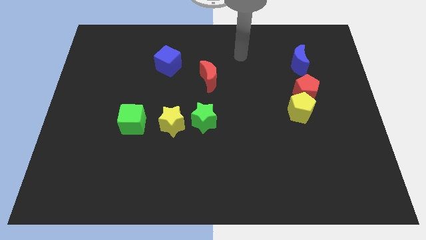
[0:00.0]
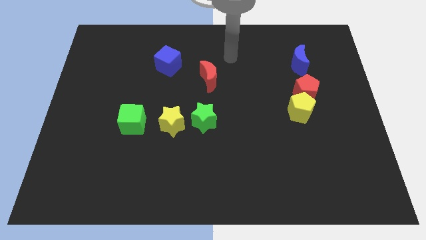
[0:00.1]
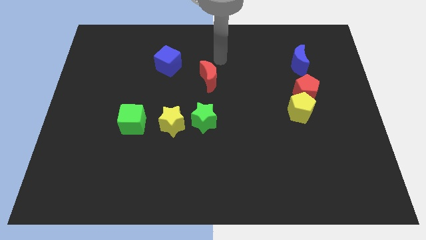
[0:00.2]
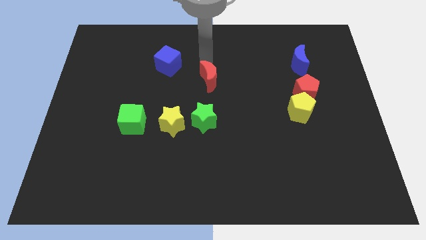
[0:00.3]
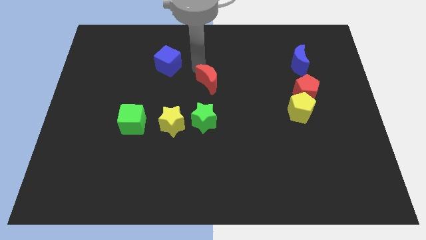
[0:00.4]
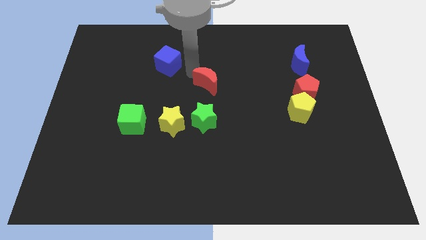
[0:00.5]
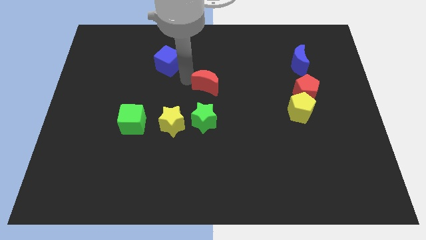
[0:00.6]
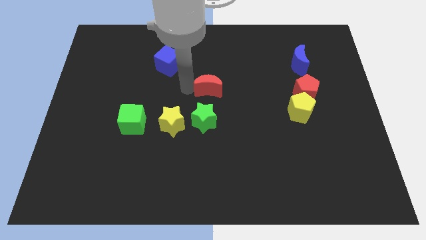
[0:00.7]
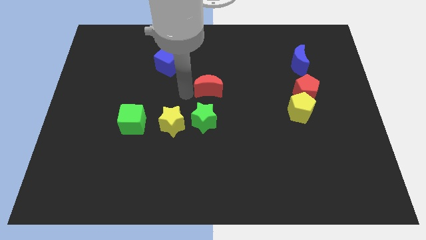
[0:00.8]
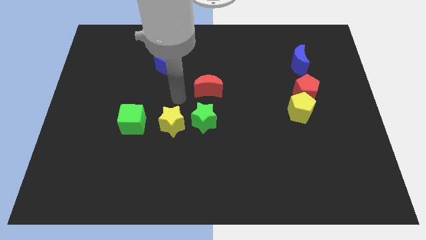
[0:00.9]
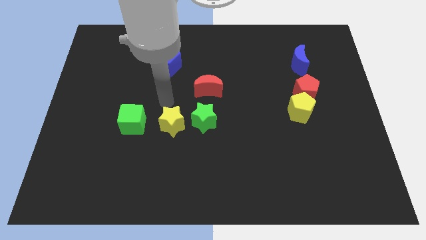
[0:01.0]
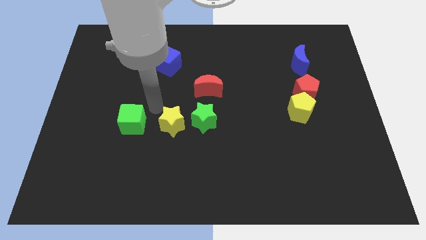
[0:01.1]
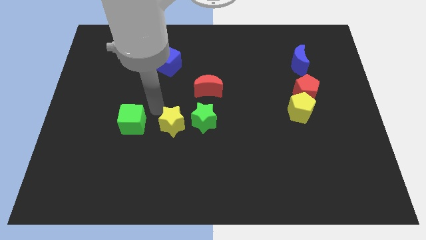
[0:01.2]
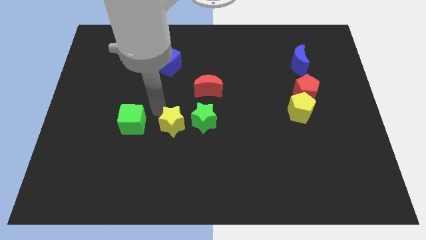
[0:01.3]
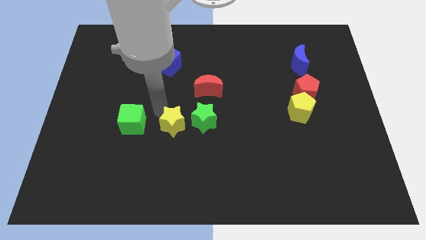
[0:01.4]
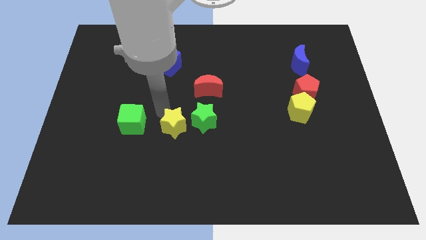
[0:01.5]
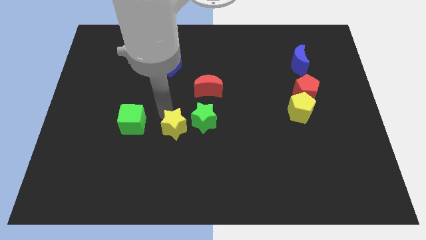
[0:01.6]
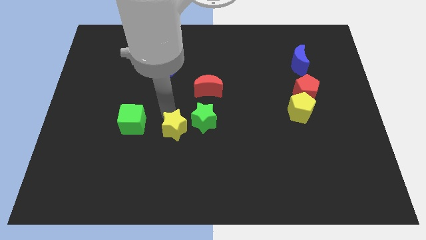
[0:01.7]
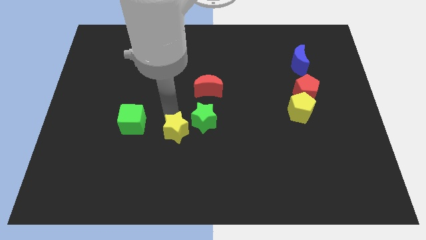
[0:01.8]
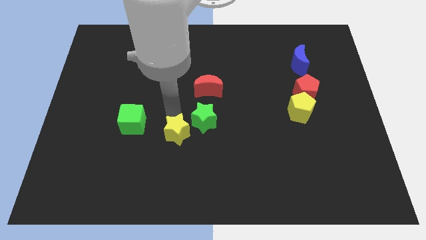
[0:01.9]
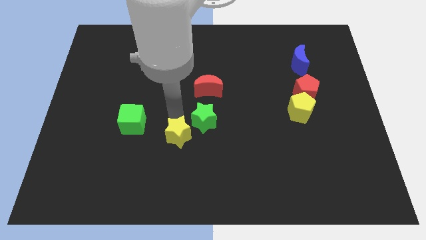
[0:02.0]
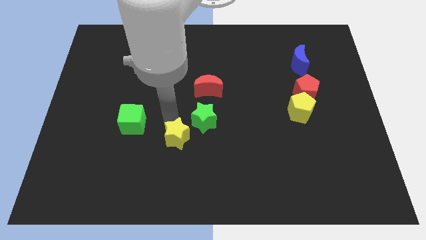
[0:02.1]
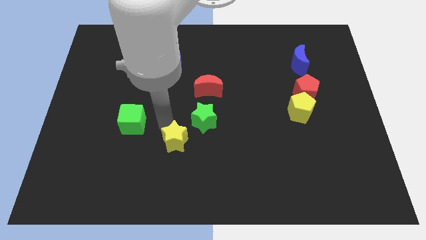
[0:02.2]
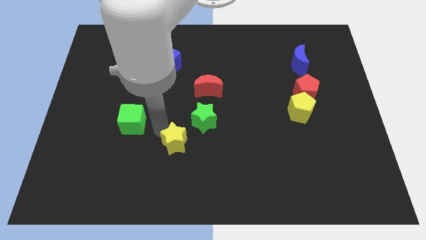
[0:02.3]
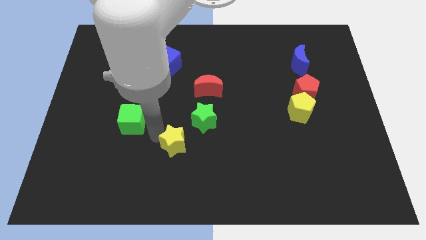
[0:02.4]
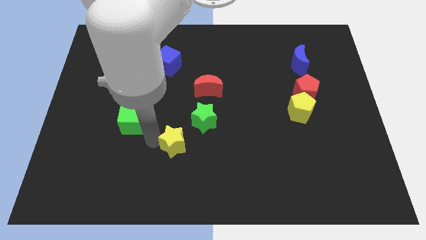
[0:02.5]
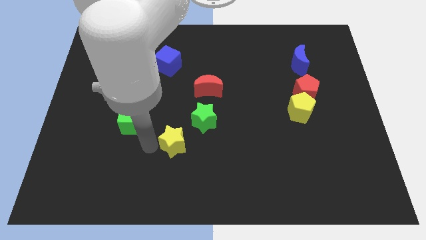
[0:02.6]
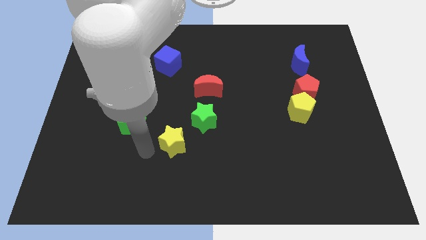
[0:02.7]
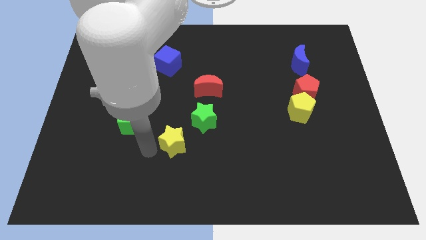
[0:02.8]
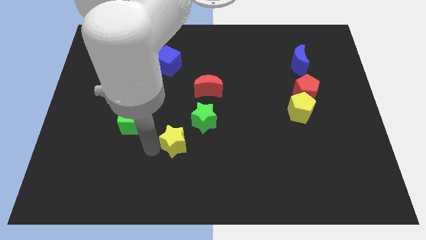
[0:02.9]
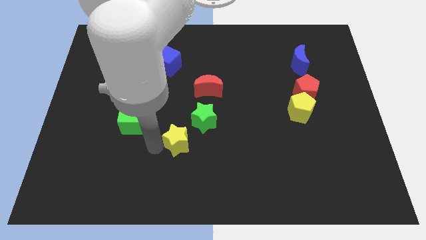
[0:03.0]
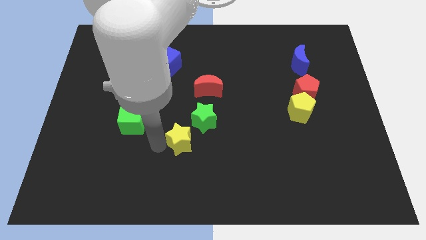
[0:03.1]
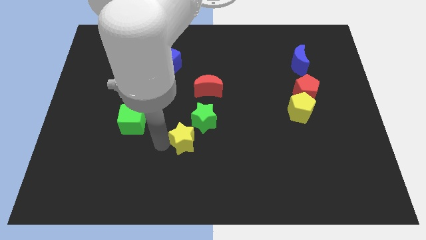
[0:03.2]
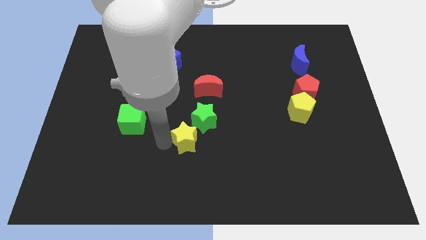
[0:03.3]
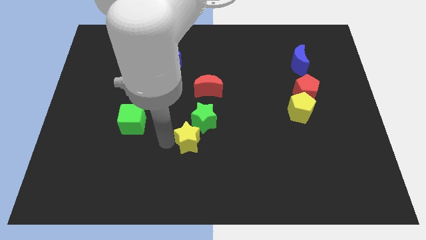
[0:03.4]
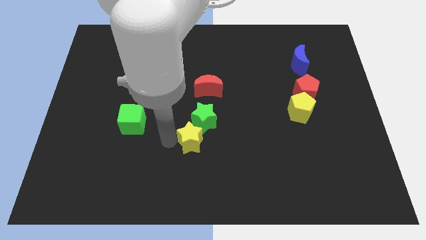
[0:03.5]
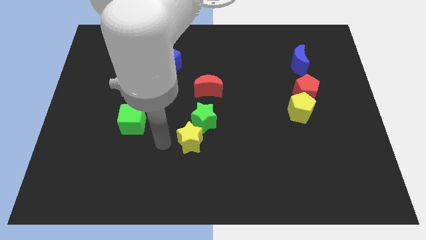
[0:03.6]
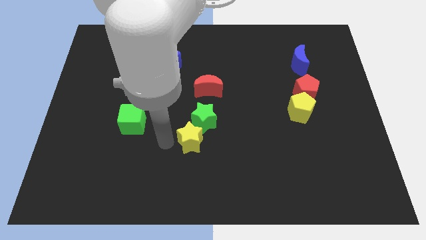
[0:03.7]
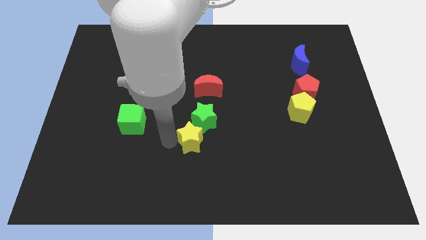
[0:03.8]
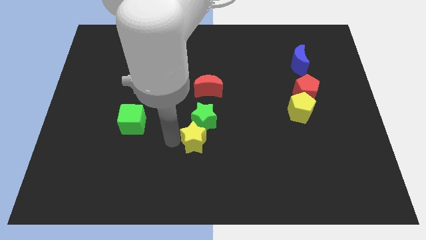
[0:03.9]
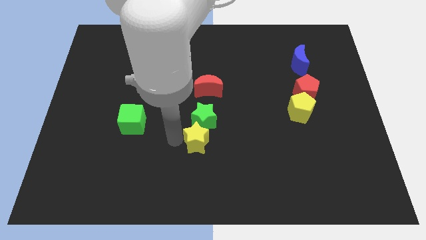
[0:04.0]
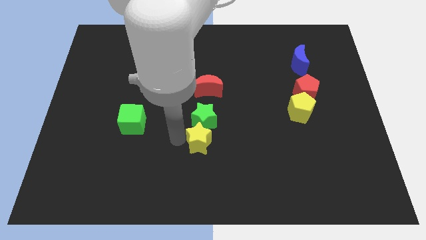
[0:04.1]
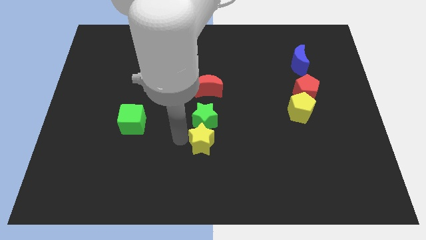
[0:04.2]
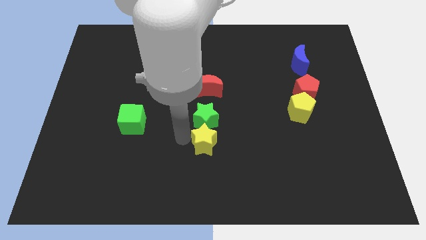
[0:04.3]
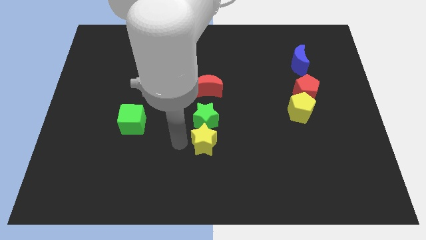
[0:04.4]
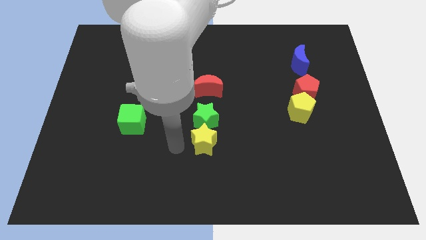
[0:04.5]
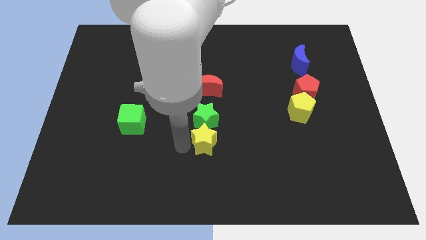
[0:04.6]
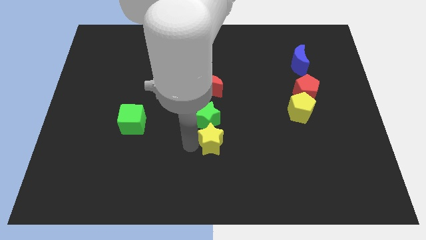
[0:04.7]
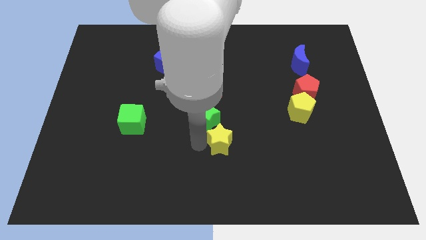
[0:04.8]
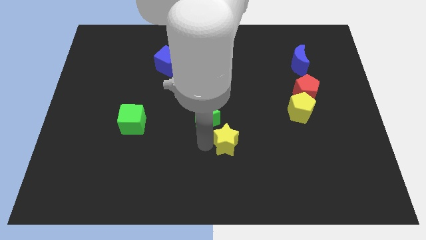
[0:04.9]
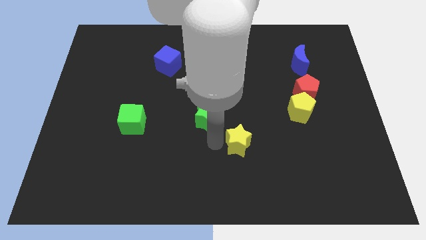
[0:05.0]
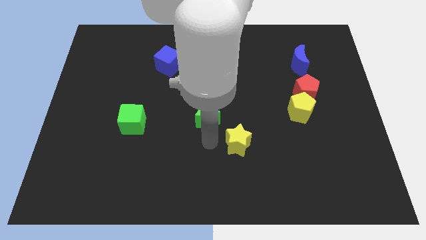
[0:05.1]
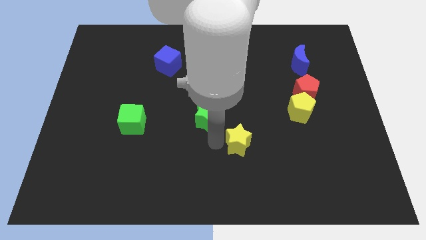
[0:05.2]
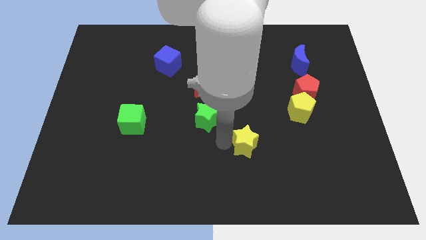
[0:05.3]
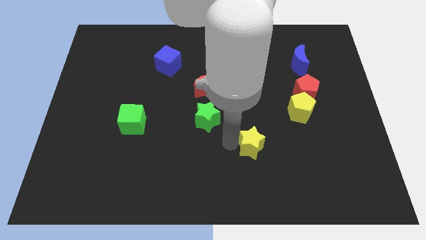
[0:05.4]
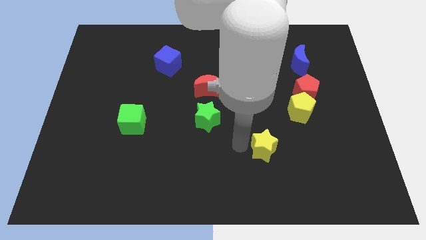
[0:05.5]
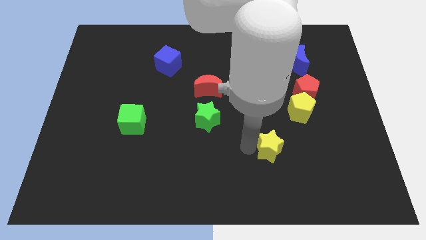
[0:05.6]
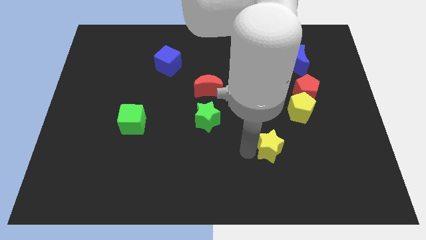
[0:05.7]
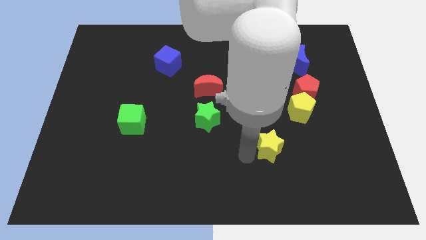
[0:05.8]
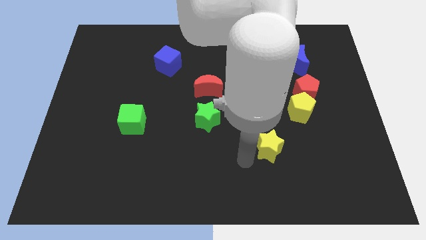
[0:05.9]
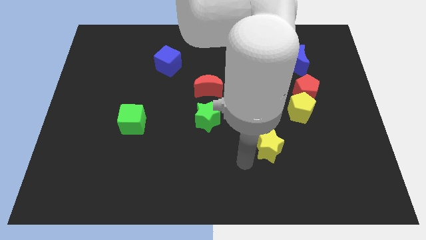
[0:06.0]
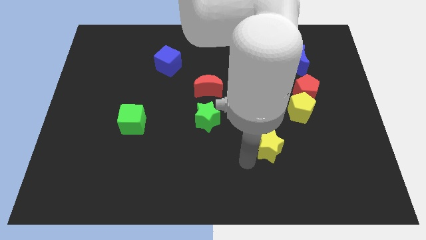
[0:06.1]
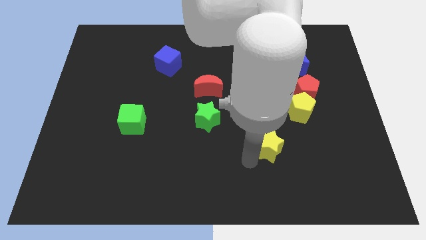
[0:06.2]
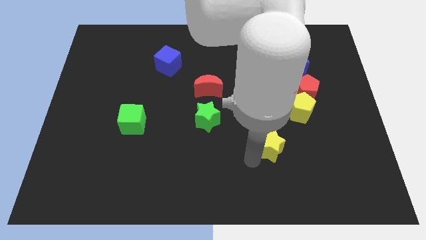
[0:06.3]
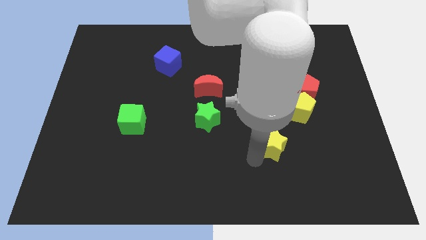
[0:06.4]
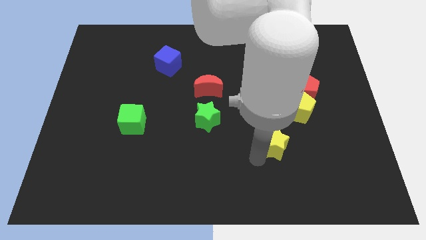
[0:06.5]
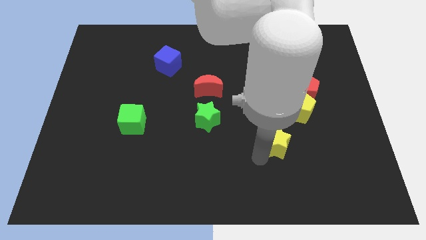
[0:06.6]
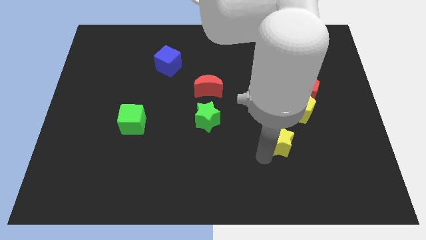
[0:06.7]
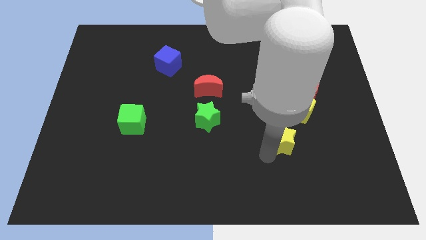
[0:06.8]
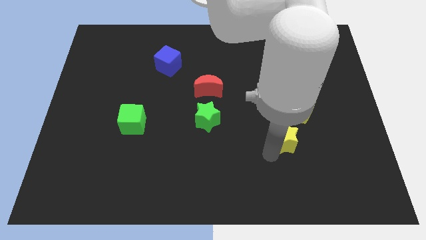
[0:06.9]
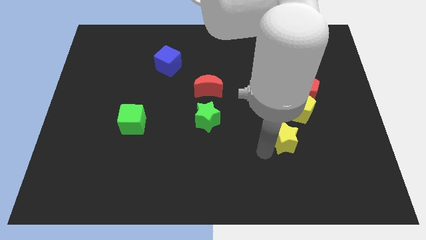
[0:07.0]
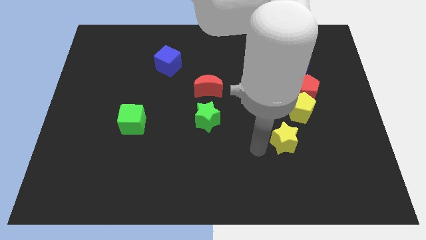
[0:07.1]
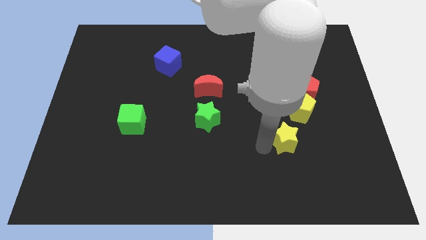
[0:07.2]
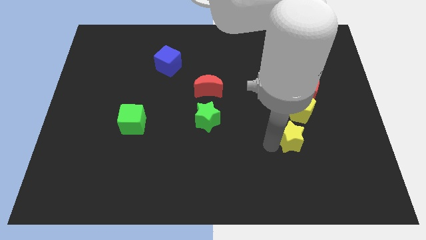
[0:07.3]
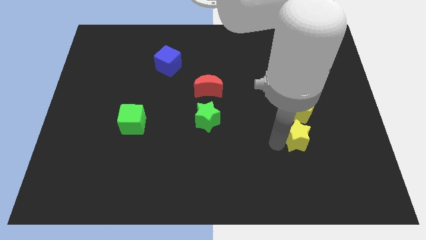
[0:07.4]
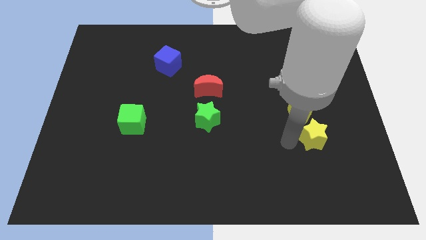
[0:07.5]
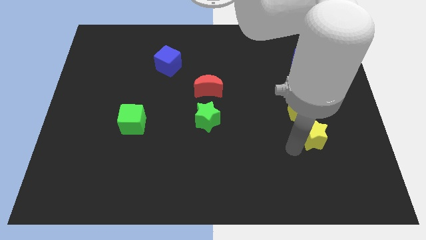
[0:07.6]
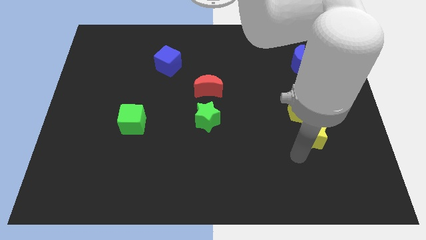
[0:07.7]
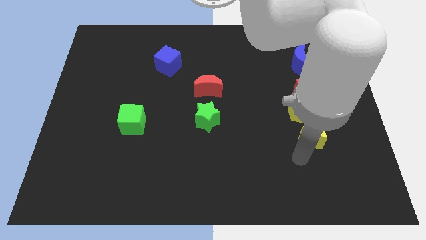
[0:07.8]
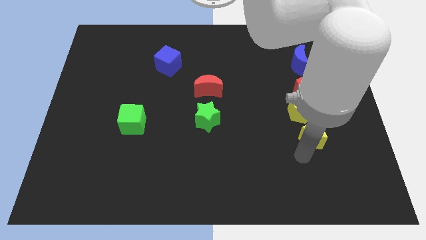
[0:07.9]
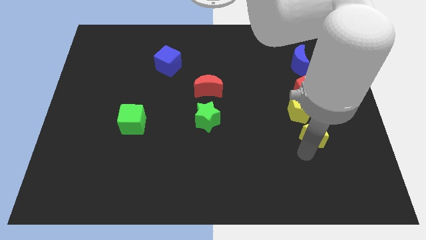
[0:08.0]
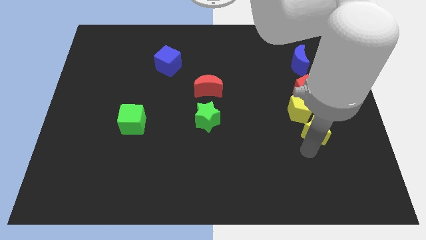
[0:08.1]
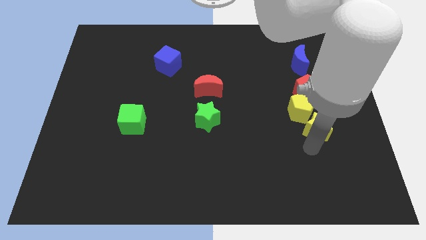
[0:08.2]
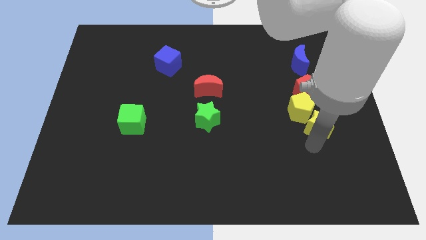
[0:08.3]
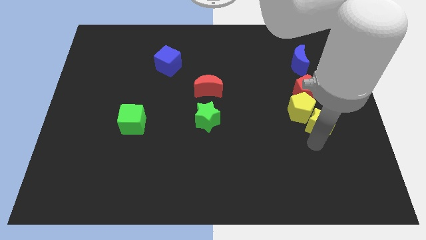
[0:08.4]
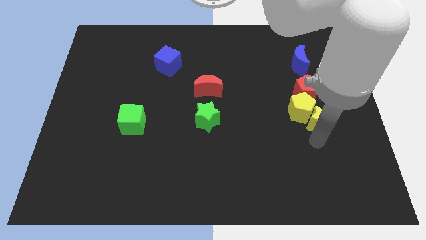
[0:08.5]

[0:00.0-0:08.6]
slide the yellow star diagonally down and to the right of the red pentagon
